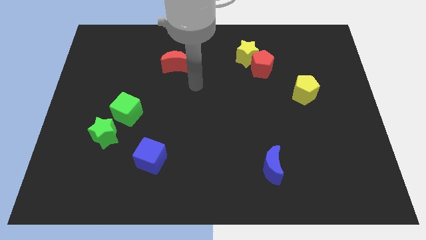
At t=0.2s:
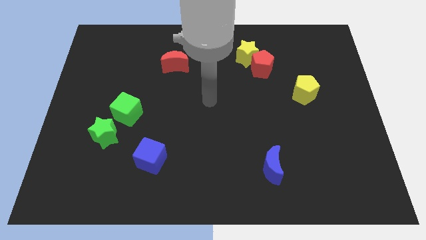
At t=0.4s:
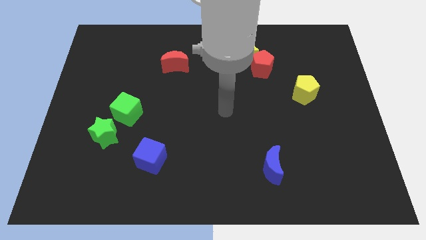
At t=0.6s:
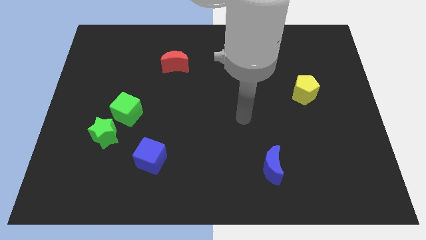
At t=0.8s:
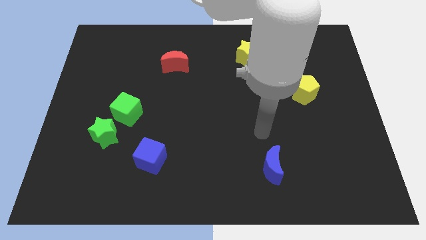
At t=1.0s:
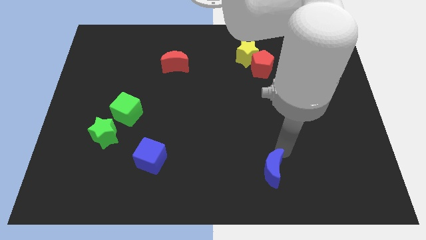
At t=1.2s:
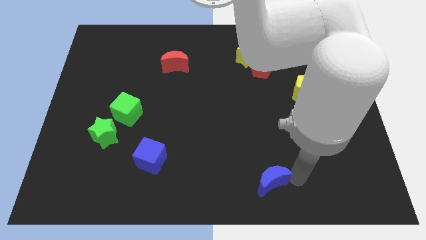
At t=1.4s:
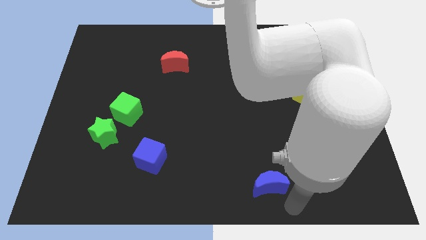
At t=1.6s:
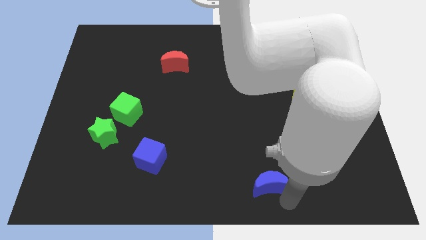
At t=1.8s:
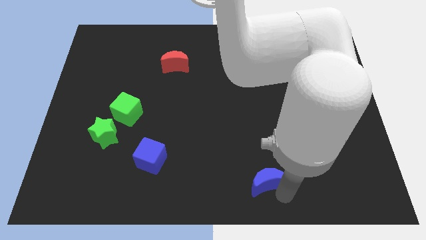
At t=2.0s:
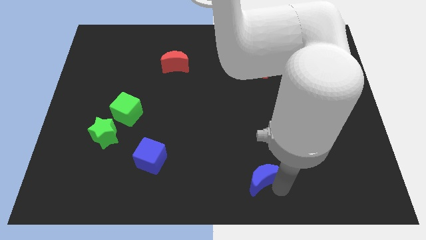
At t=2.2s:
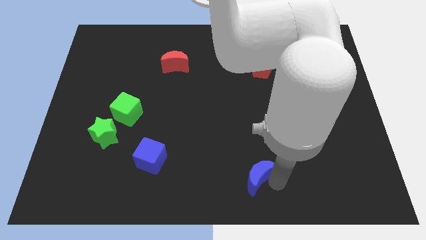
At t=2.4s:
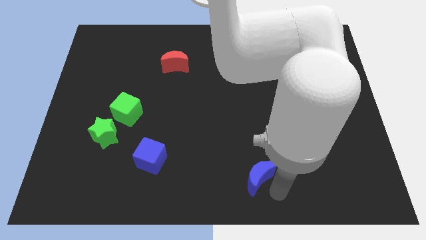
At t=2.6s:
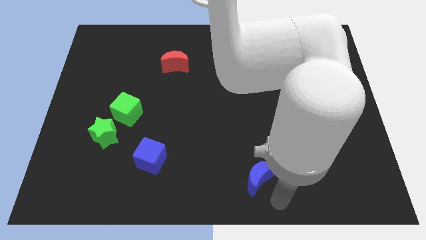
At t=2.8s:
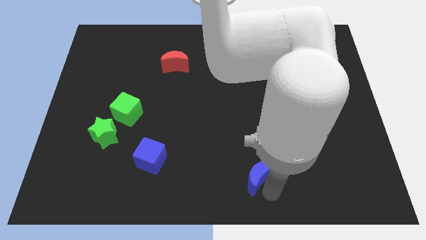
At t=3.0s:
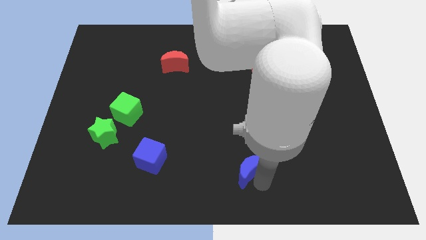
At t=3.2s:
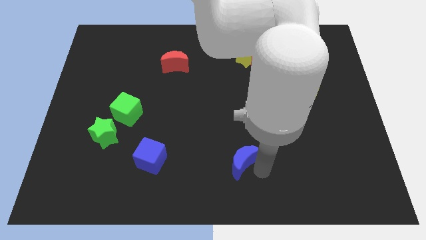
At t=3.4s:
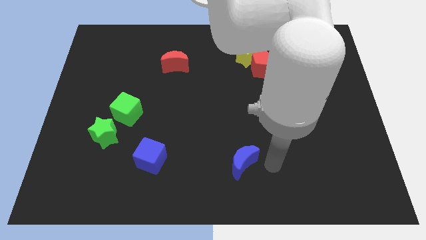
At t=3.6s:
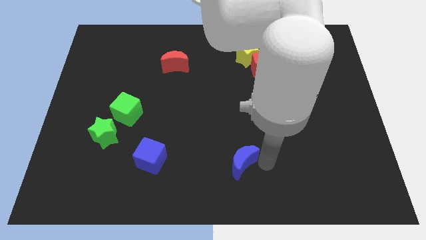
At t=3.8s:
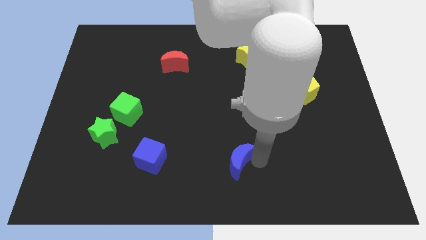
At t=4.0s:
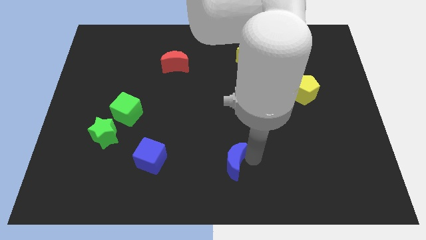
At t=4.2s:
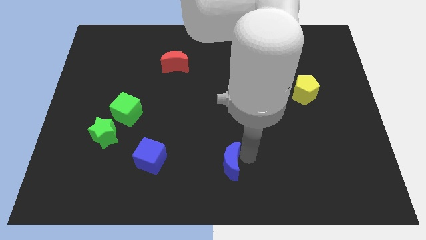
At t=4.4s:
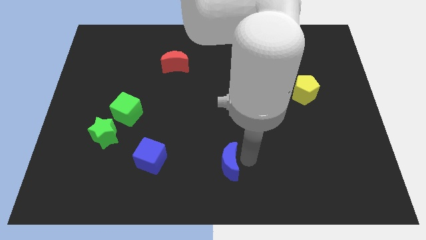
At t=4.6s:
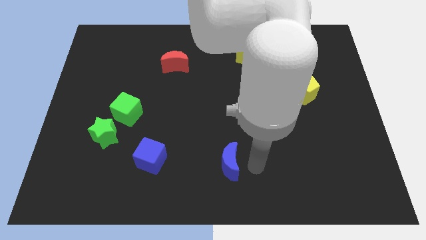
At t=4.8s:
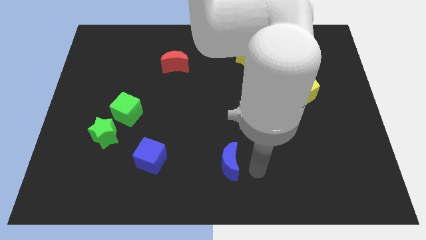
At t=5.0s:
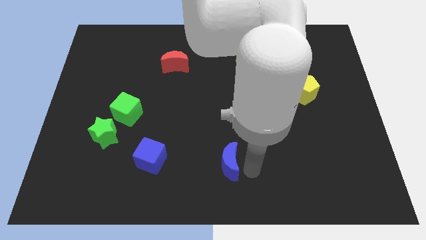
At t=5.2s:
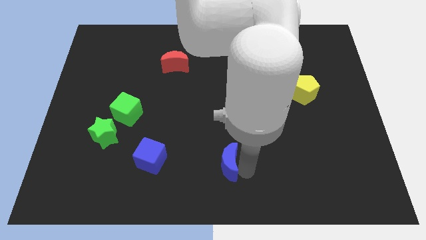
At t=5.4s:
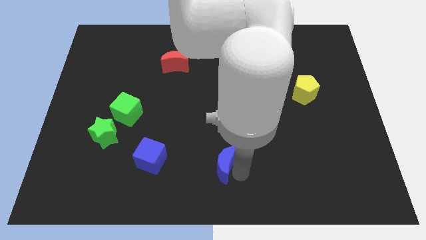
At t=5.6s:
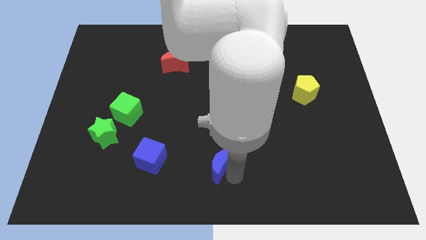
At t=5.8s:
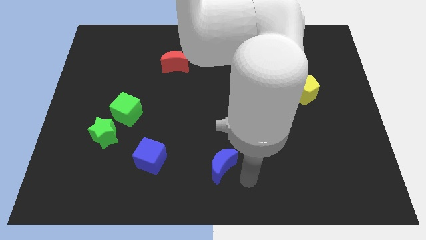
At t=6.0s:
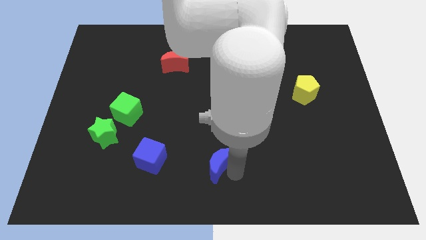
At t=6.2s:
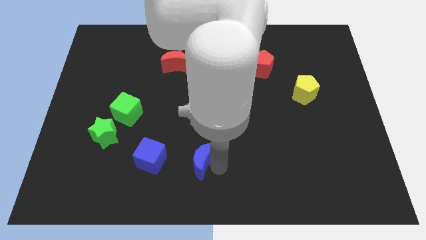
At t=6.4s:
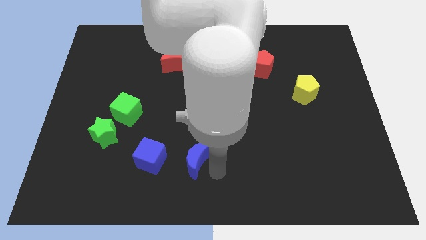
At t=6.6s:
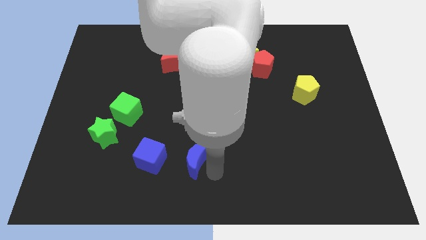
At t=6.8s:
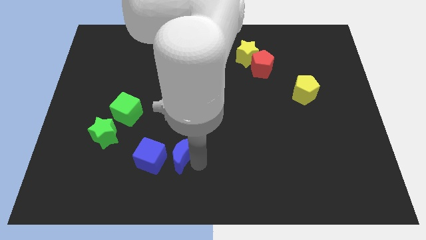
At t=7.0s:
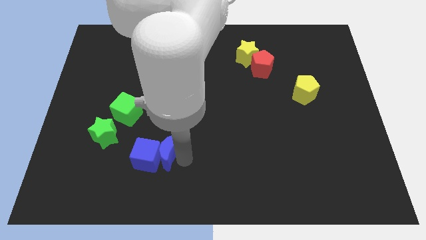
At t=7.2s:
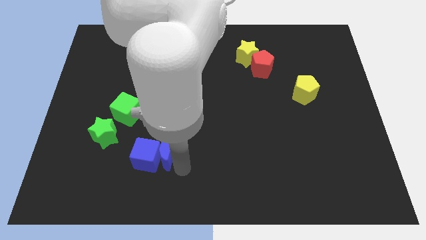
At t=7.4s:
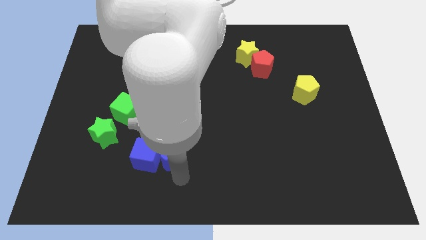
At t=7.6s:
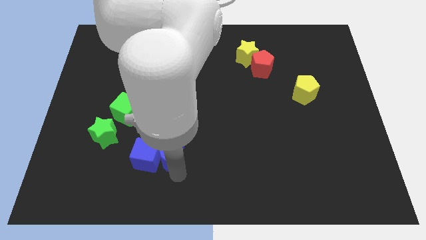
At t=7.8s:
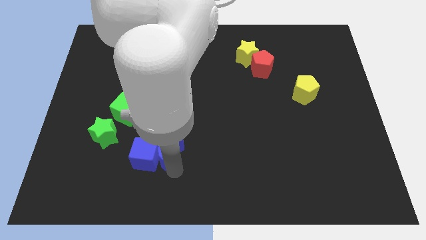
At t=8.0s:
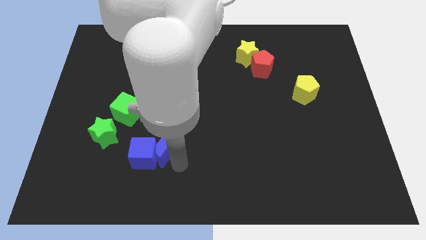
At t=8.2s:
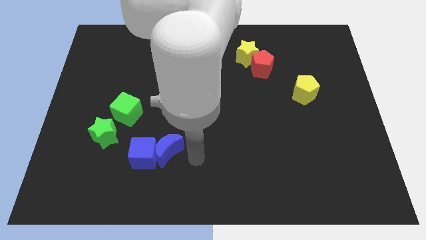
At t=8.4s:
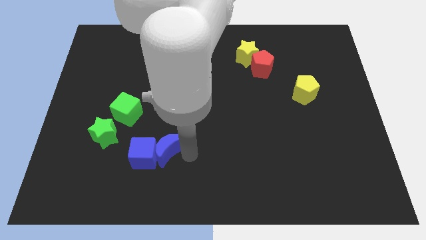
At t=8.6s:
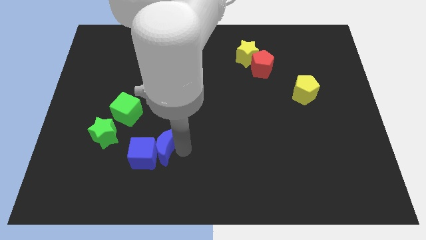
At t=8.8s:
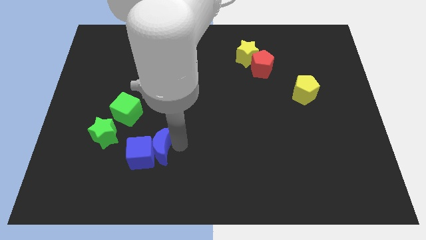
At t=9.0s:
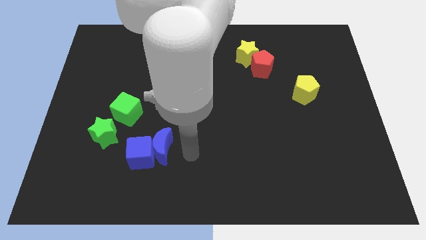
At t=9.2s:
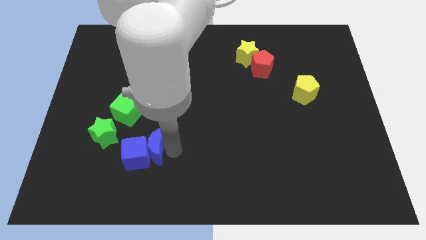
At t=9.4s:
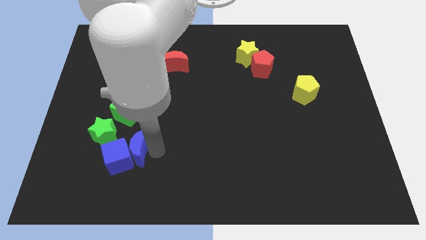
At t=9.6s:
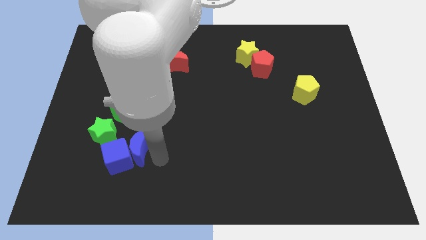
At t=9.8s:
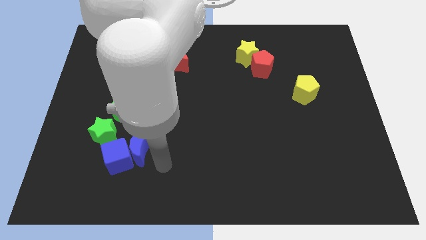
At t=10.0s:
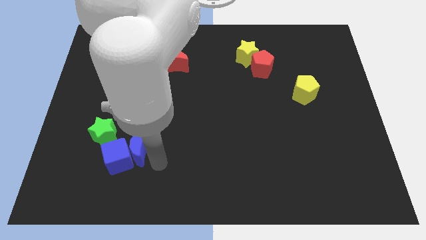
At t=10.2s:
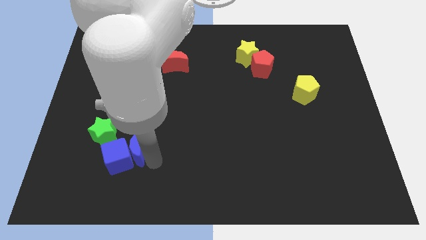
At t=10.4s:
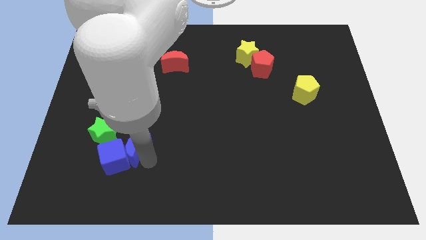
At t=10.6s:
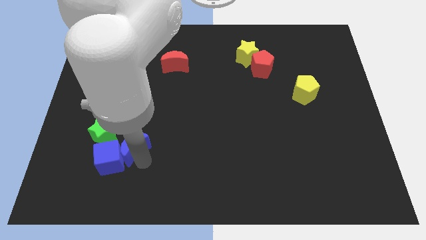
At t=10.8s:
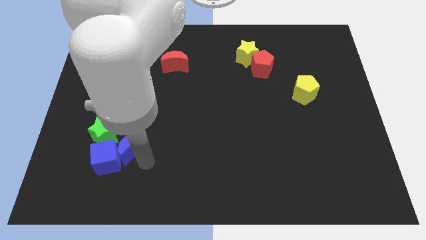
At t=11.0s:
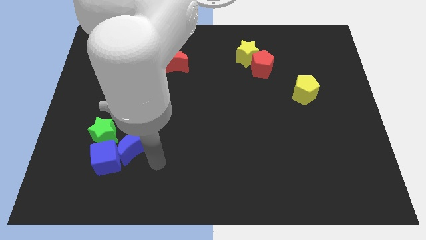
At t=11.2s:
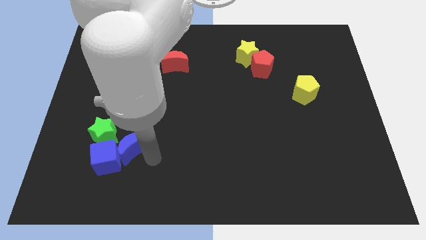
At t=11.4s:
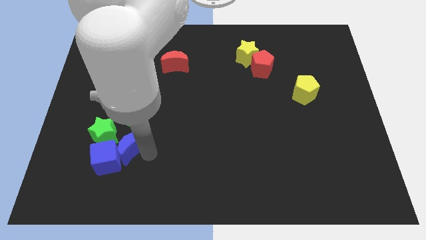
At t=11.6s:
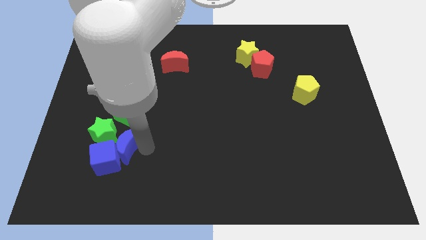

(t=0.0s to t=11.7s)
move the blue moon next to the green star

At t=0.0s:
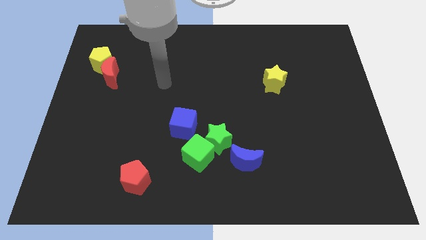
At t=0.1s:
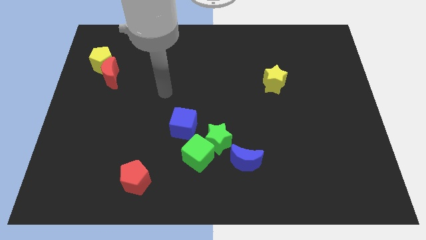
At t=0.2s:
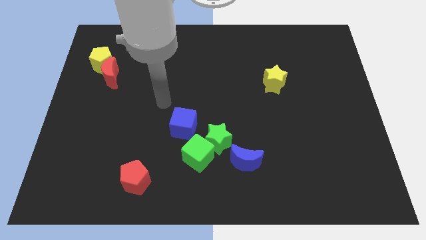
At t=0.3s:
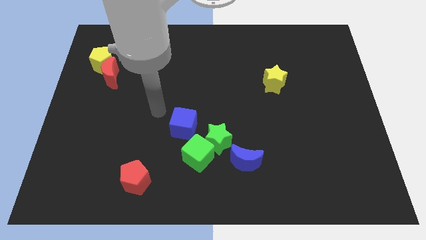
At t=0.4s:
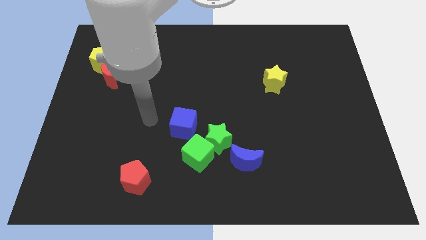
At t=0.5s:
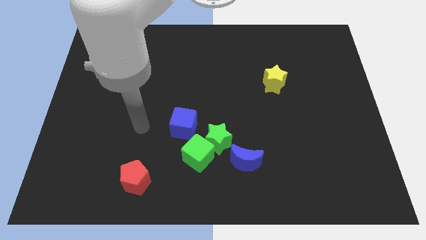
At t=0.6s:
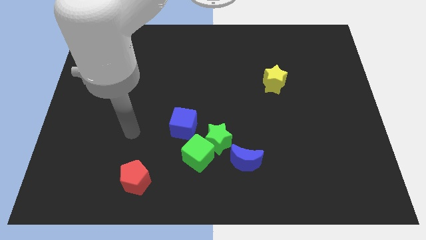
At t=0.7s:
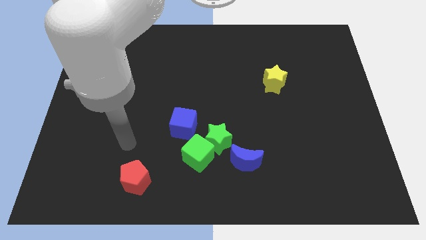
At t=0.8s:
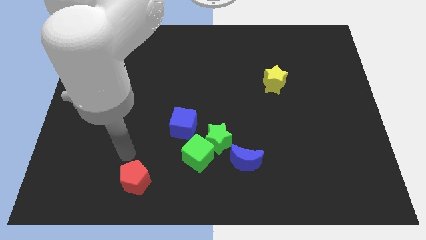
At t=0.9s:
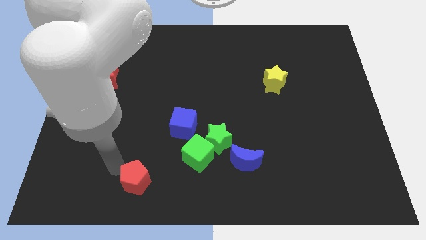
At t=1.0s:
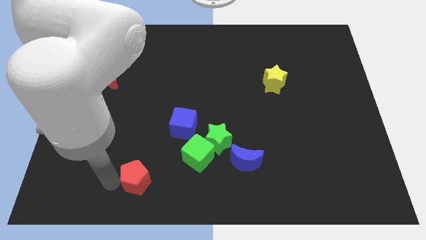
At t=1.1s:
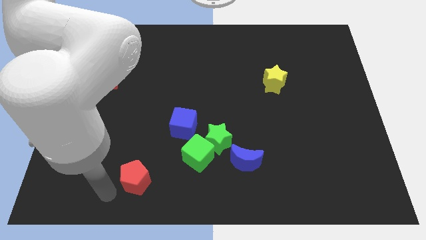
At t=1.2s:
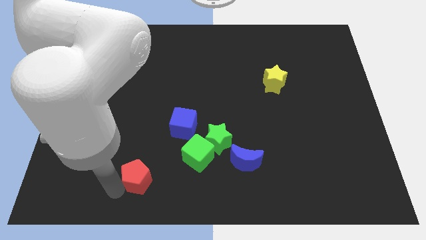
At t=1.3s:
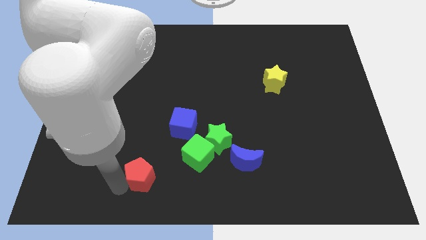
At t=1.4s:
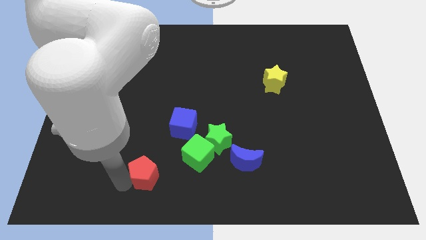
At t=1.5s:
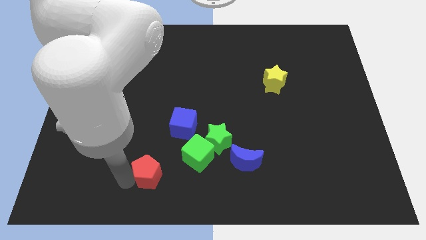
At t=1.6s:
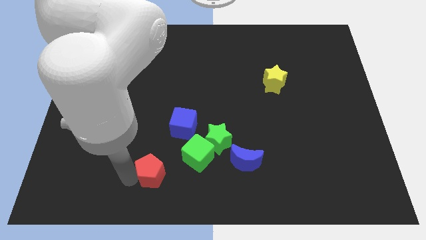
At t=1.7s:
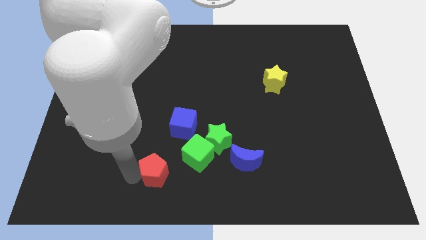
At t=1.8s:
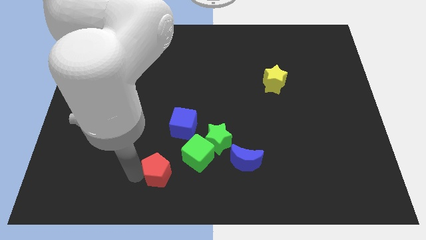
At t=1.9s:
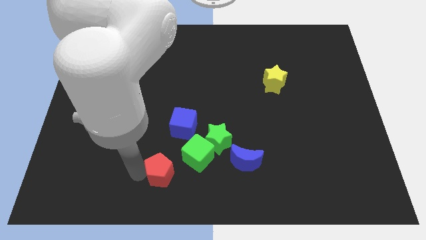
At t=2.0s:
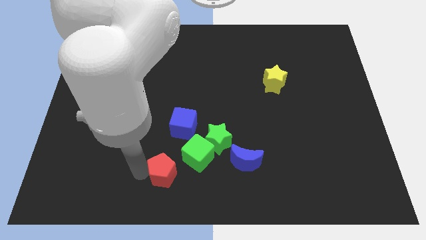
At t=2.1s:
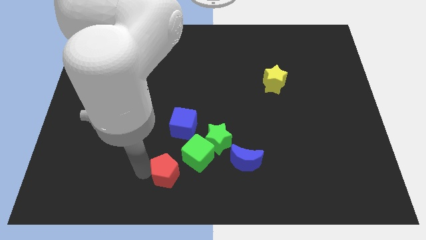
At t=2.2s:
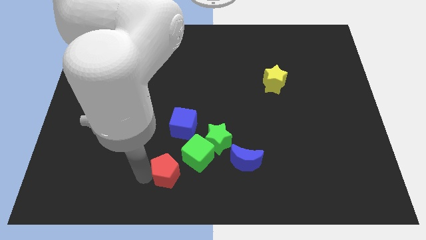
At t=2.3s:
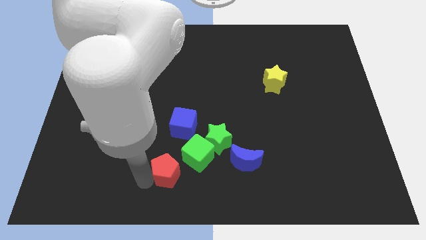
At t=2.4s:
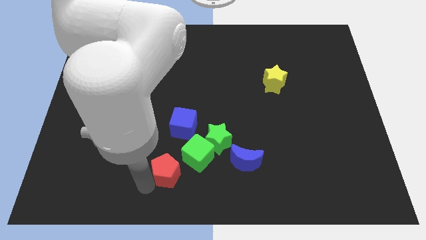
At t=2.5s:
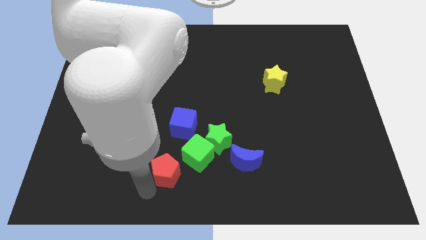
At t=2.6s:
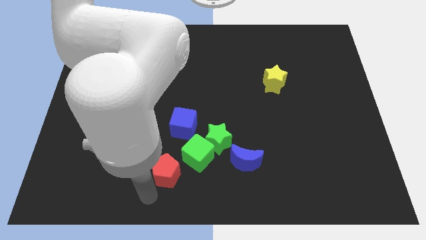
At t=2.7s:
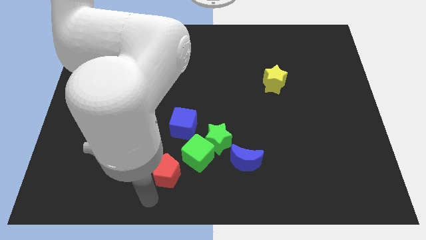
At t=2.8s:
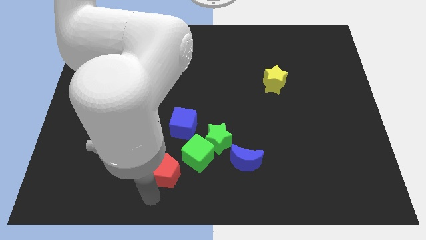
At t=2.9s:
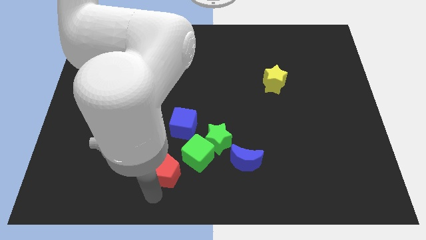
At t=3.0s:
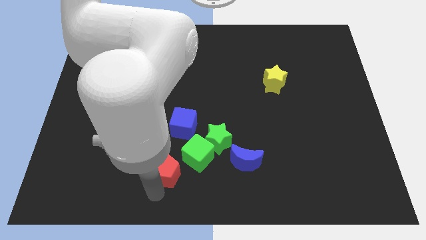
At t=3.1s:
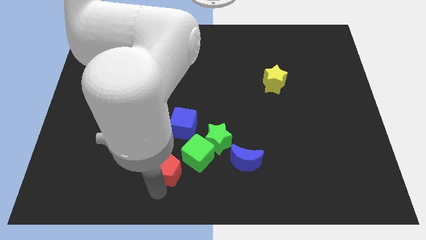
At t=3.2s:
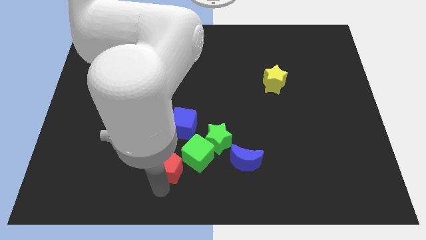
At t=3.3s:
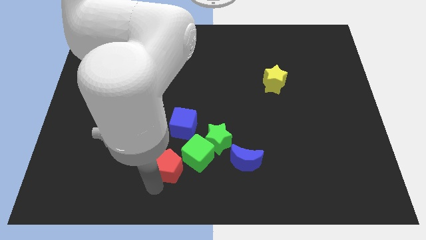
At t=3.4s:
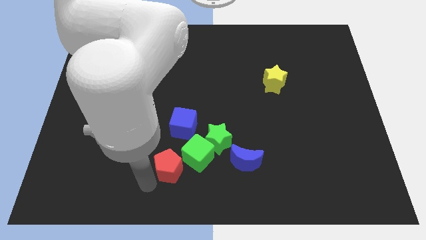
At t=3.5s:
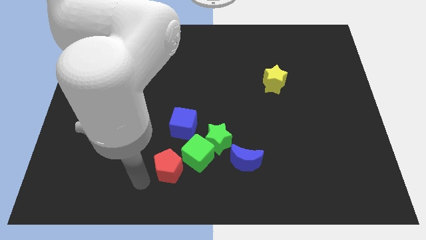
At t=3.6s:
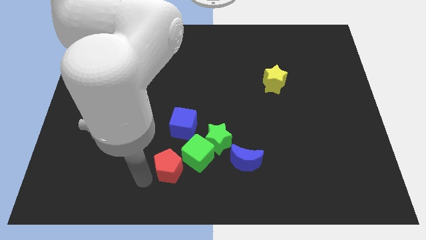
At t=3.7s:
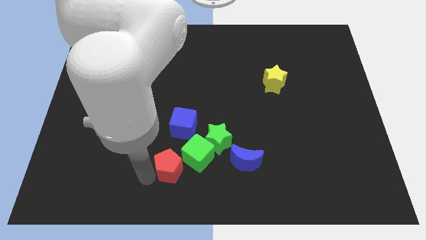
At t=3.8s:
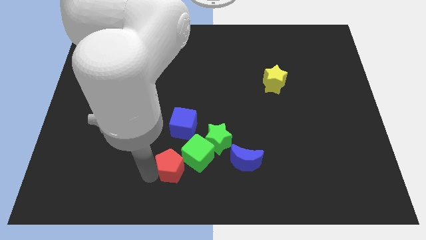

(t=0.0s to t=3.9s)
slide the red pentagon towards the green cube
